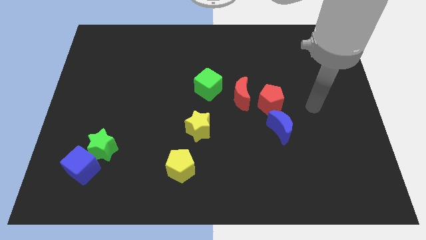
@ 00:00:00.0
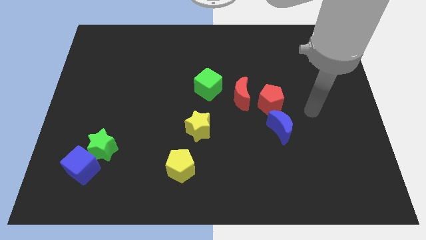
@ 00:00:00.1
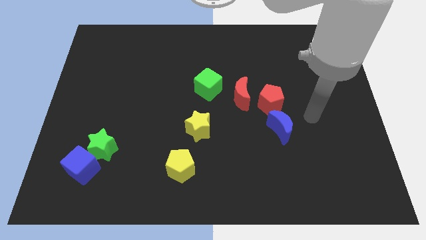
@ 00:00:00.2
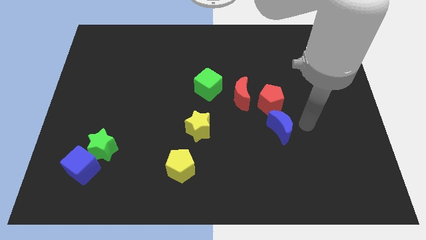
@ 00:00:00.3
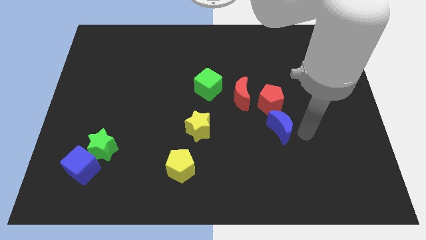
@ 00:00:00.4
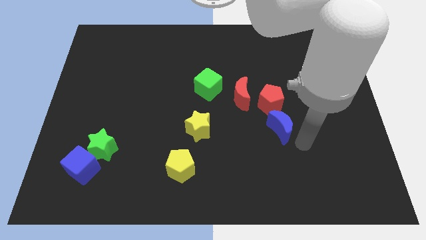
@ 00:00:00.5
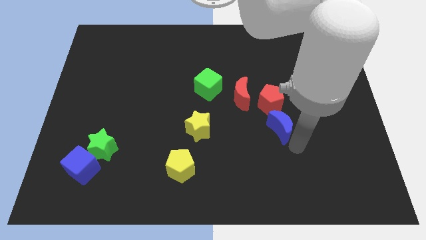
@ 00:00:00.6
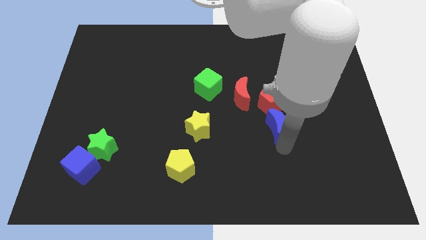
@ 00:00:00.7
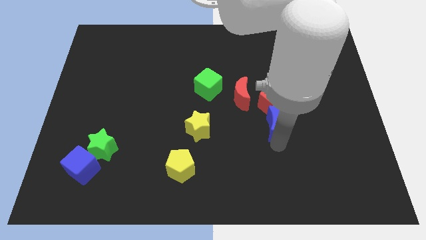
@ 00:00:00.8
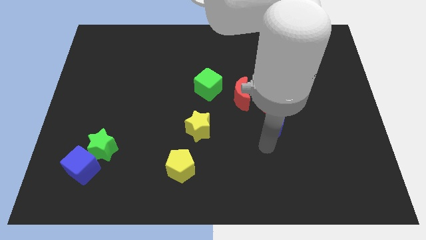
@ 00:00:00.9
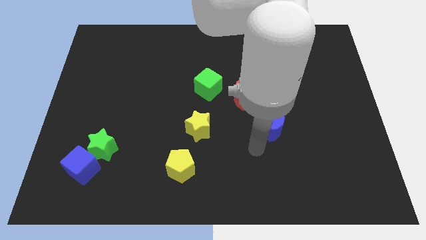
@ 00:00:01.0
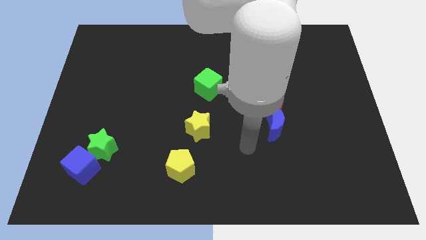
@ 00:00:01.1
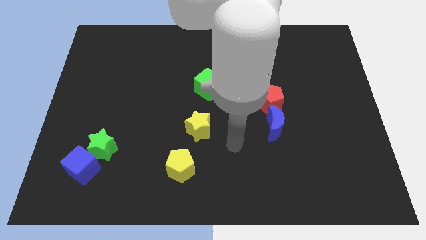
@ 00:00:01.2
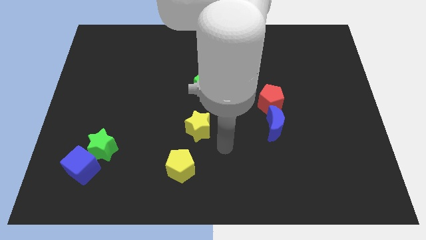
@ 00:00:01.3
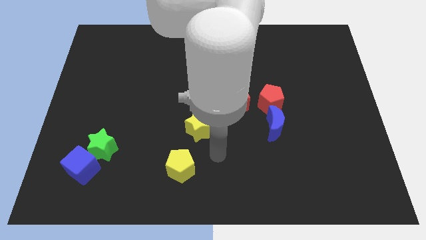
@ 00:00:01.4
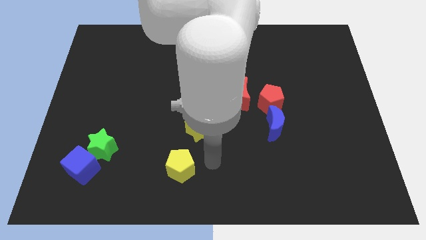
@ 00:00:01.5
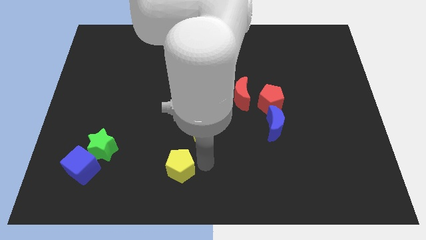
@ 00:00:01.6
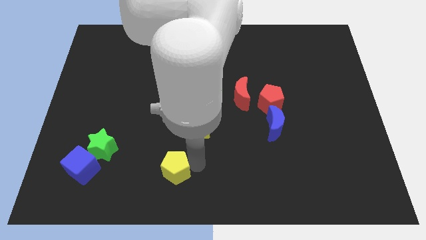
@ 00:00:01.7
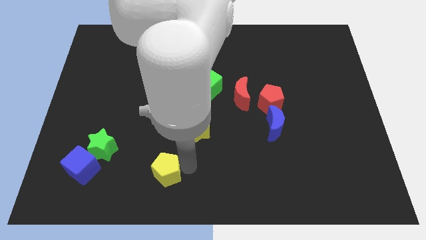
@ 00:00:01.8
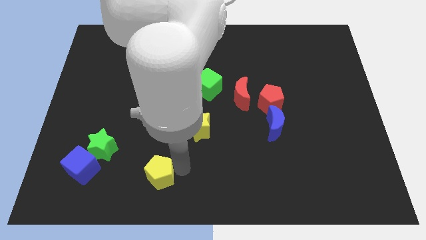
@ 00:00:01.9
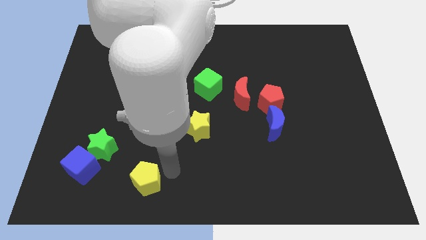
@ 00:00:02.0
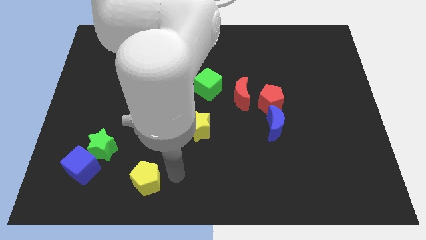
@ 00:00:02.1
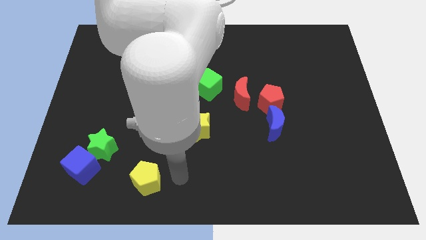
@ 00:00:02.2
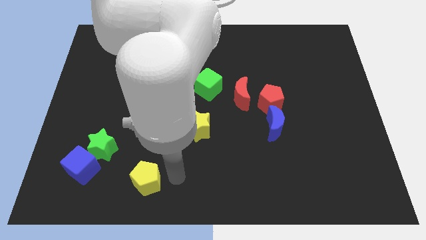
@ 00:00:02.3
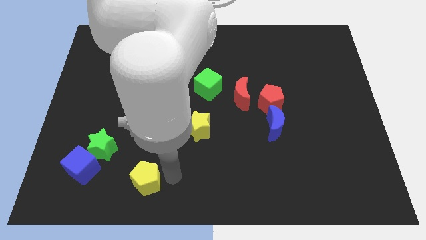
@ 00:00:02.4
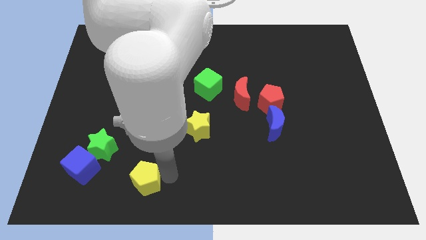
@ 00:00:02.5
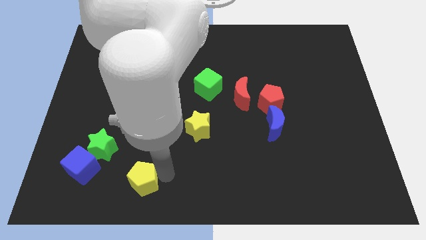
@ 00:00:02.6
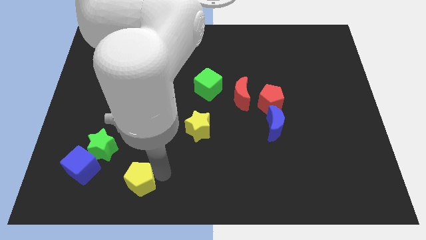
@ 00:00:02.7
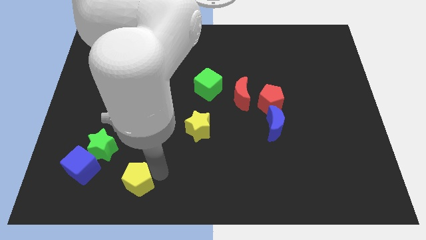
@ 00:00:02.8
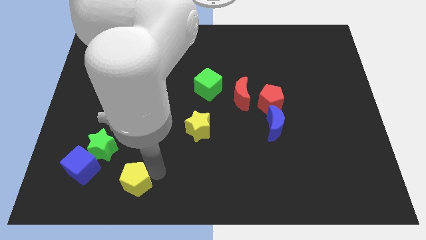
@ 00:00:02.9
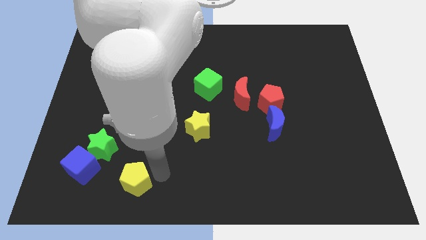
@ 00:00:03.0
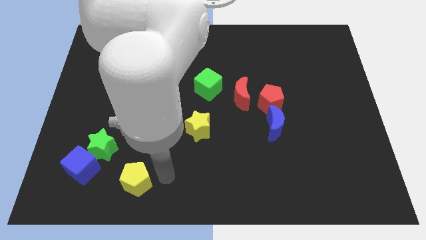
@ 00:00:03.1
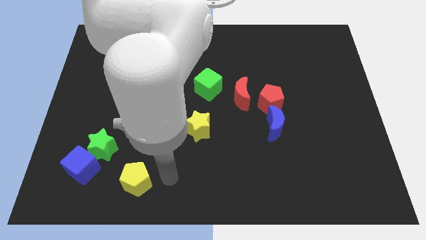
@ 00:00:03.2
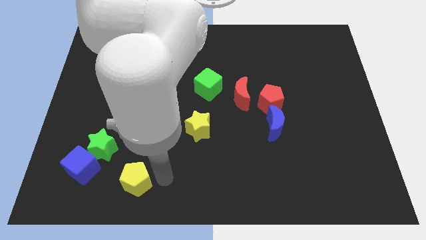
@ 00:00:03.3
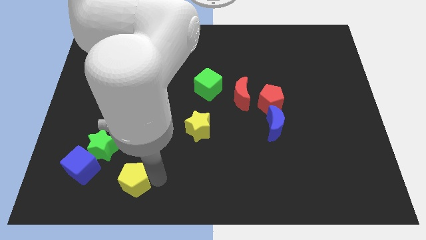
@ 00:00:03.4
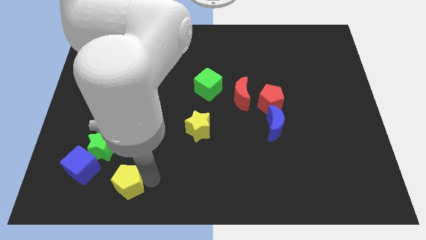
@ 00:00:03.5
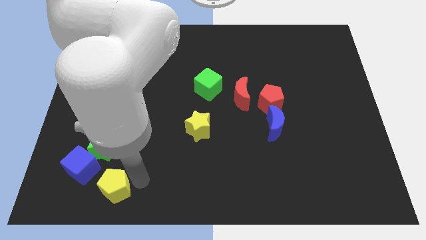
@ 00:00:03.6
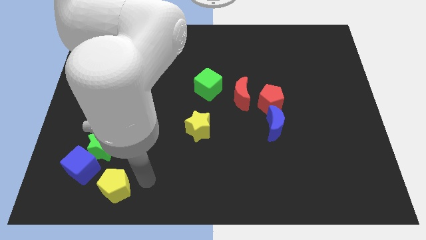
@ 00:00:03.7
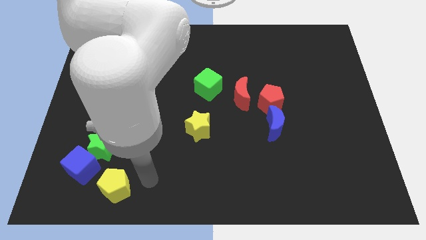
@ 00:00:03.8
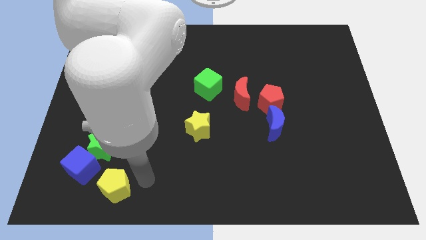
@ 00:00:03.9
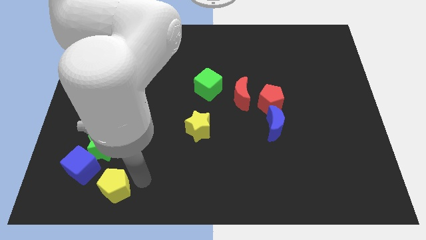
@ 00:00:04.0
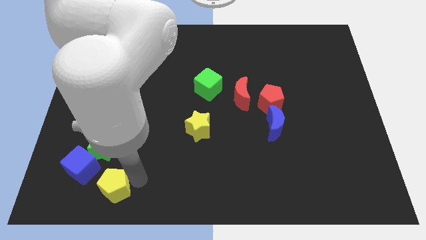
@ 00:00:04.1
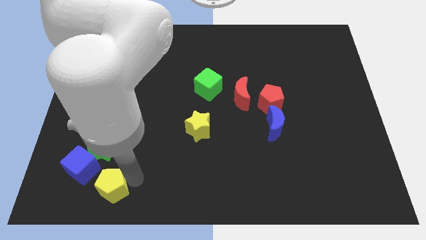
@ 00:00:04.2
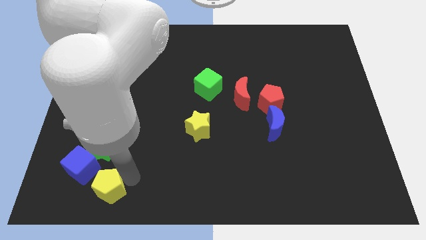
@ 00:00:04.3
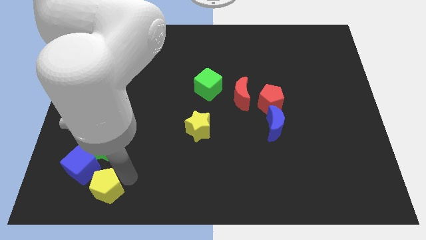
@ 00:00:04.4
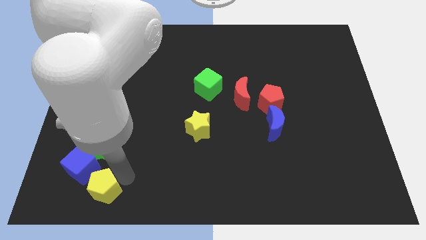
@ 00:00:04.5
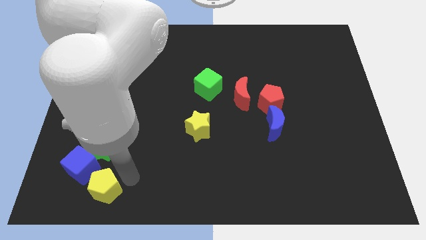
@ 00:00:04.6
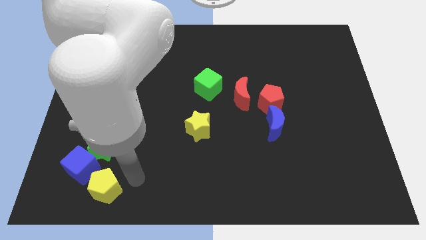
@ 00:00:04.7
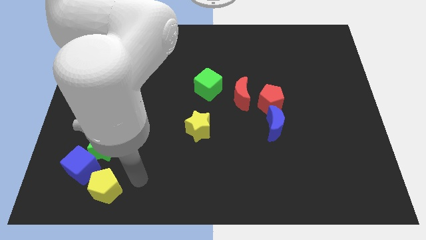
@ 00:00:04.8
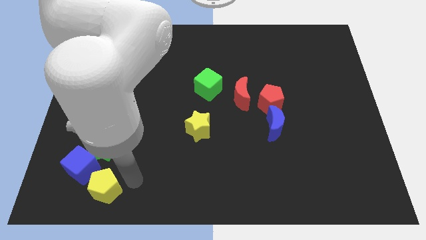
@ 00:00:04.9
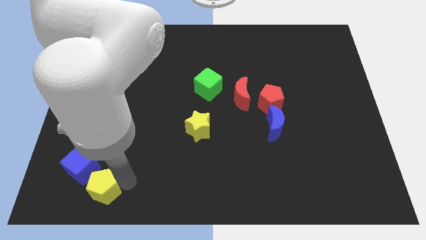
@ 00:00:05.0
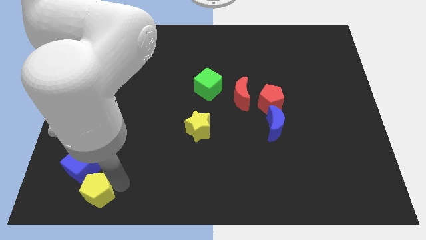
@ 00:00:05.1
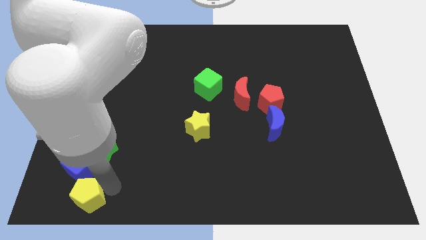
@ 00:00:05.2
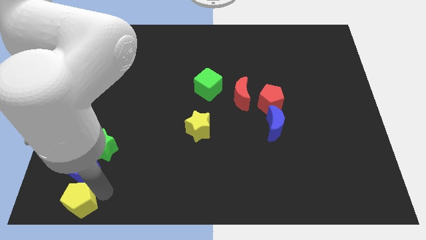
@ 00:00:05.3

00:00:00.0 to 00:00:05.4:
slide the yellow pentagon to the bottom left

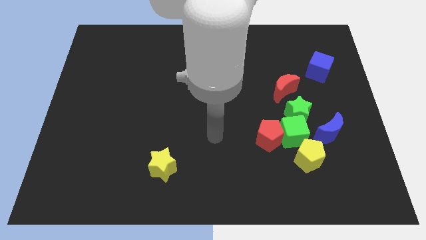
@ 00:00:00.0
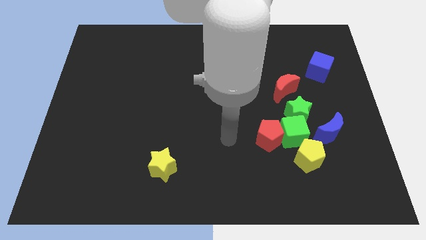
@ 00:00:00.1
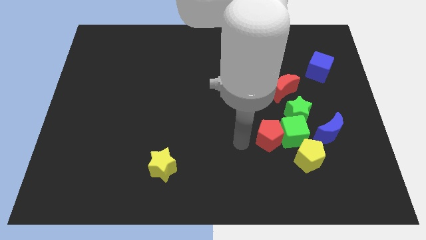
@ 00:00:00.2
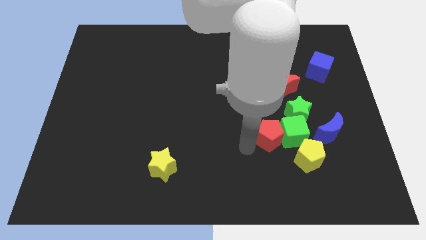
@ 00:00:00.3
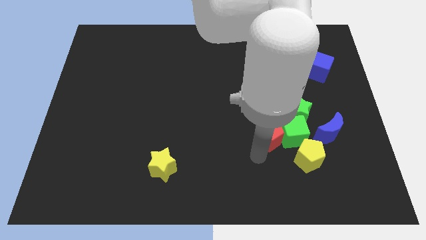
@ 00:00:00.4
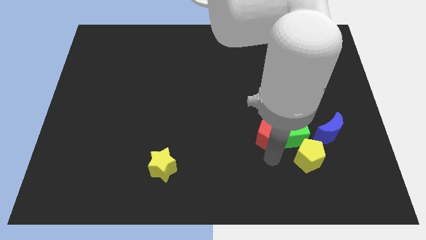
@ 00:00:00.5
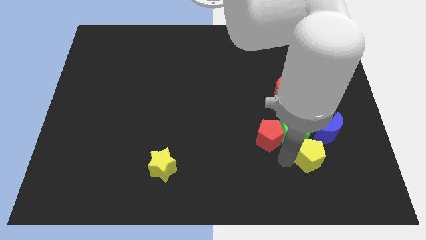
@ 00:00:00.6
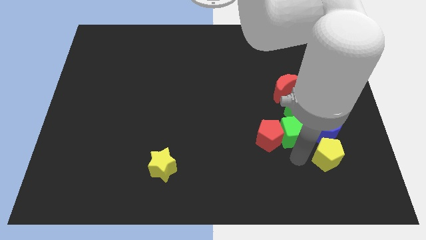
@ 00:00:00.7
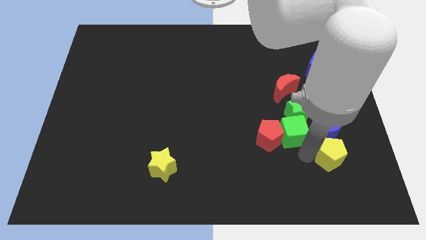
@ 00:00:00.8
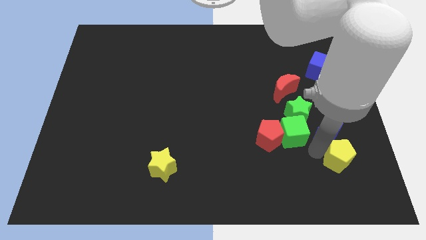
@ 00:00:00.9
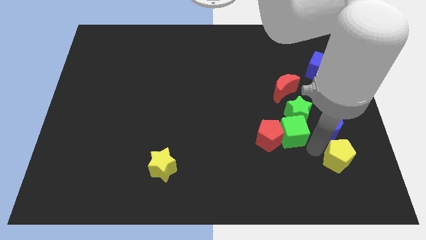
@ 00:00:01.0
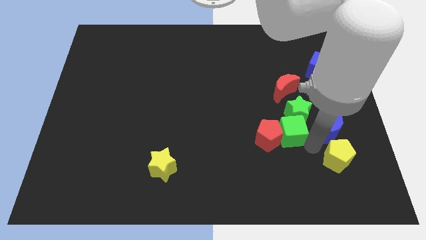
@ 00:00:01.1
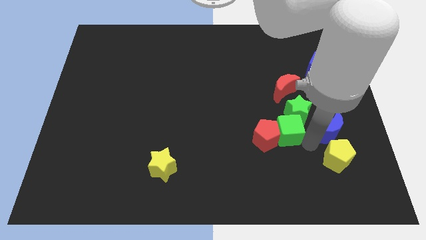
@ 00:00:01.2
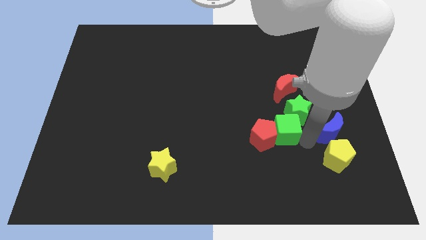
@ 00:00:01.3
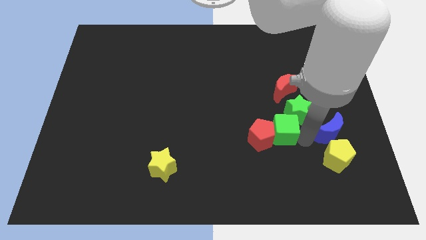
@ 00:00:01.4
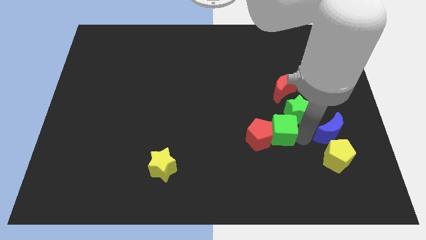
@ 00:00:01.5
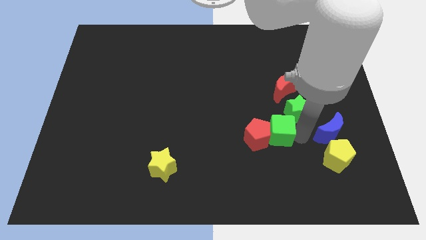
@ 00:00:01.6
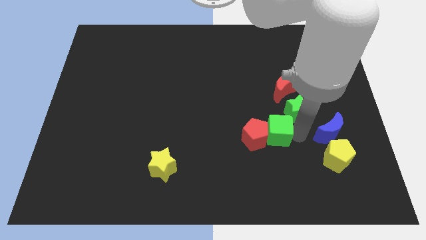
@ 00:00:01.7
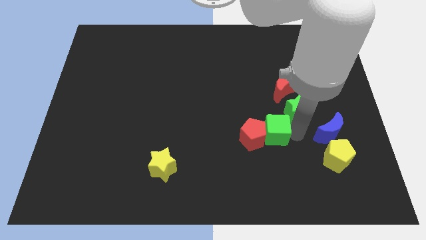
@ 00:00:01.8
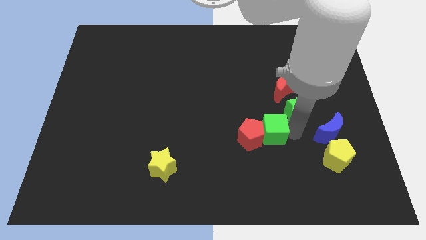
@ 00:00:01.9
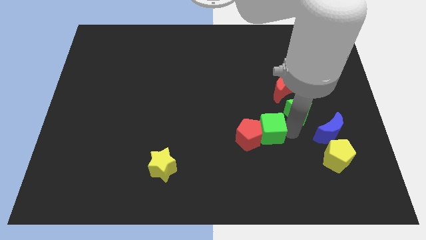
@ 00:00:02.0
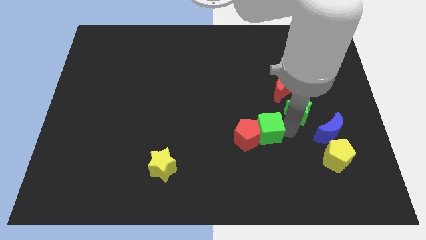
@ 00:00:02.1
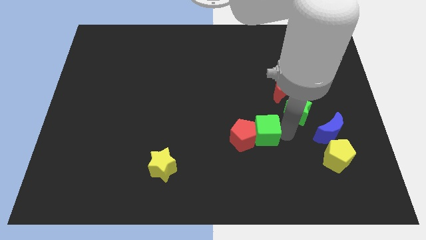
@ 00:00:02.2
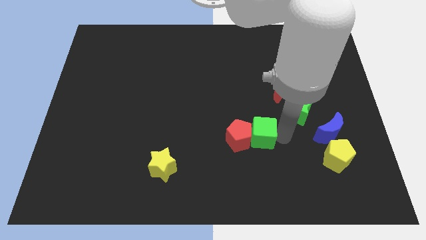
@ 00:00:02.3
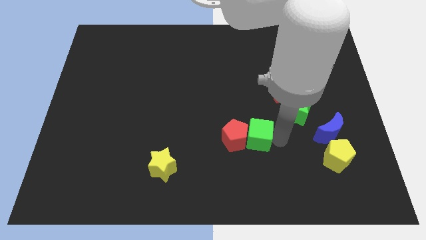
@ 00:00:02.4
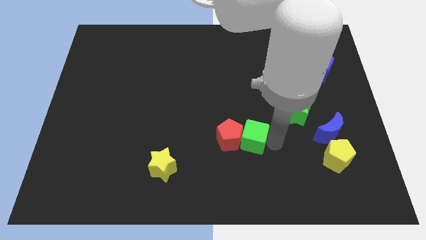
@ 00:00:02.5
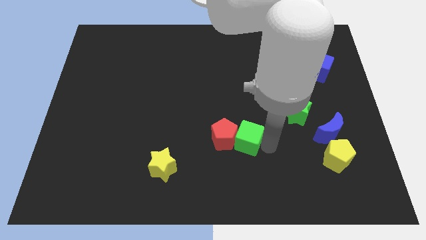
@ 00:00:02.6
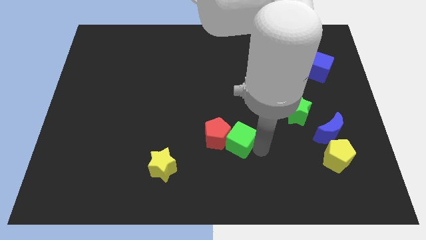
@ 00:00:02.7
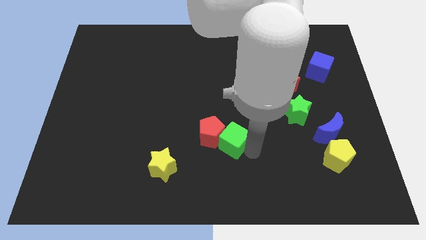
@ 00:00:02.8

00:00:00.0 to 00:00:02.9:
slide the green cube to the center of the board

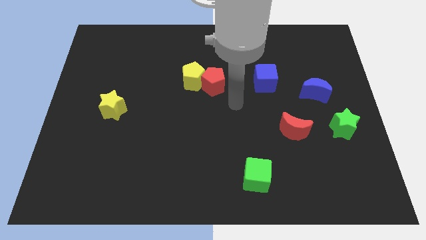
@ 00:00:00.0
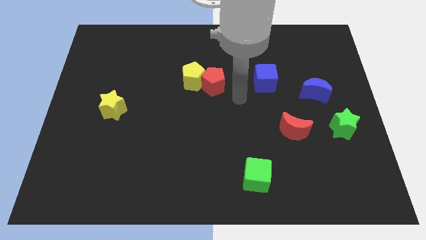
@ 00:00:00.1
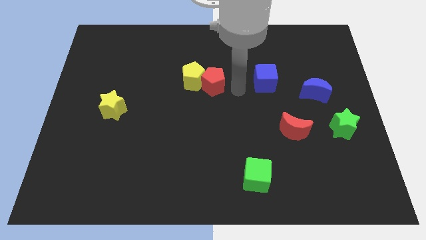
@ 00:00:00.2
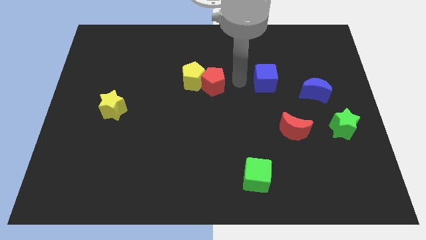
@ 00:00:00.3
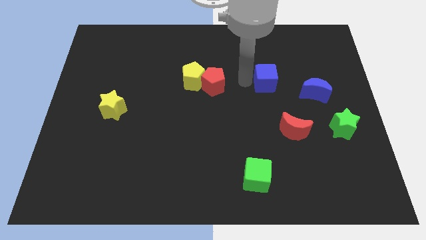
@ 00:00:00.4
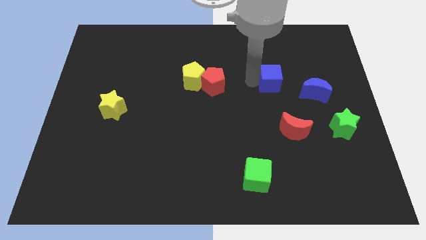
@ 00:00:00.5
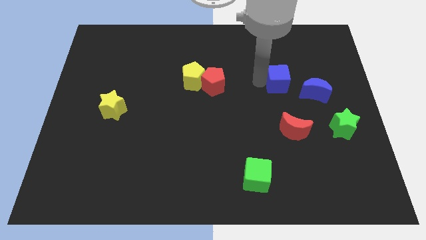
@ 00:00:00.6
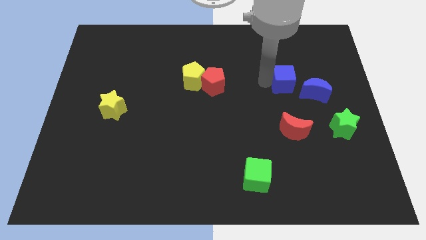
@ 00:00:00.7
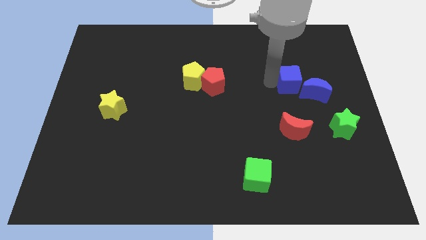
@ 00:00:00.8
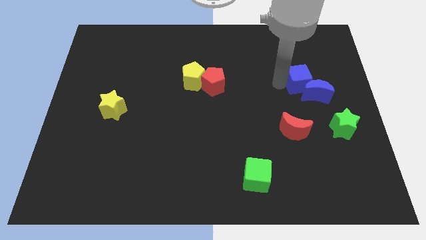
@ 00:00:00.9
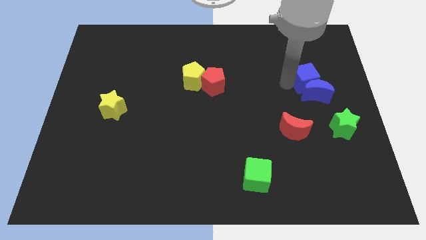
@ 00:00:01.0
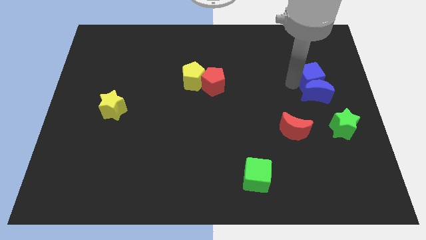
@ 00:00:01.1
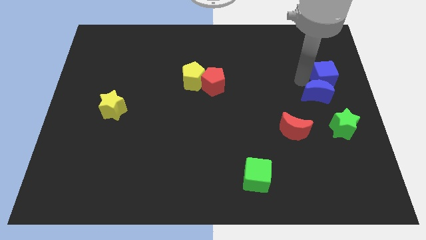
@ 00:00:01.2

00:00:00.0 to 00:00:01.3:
put the blue cube to the right side of the board
